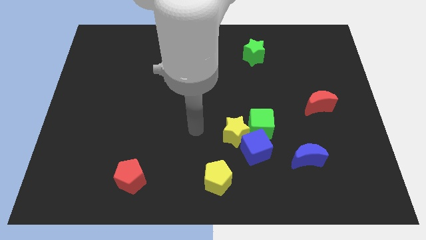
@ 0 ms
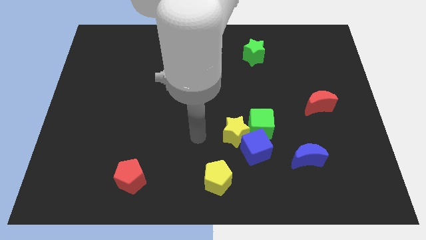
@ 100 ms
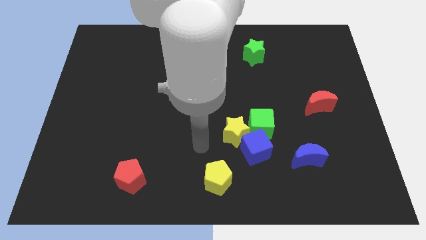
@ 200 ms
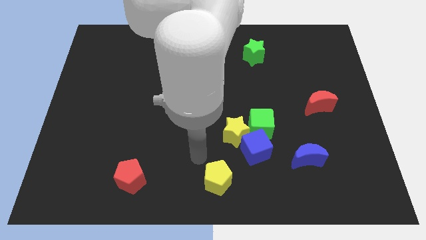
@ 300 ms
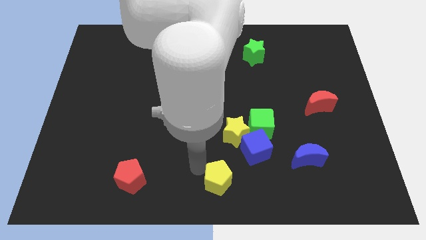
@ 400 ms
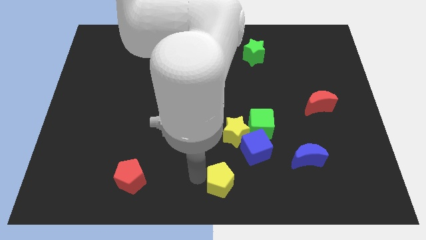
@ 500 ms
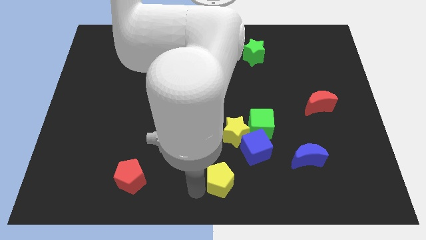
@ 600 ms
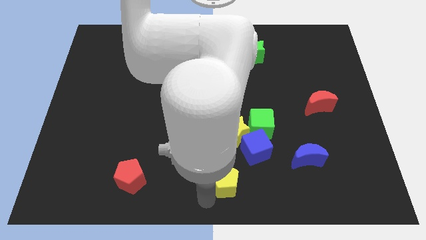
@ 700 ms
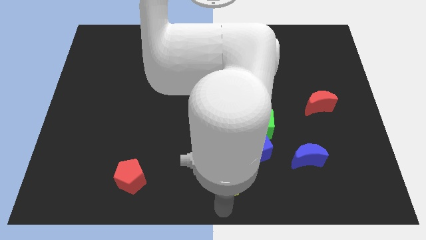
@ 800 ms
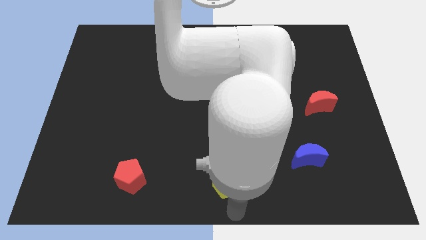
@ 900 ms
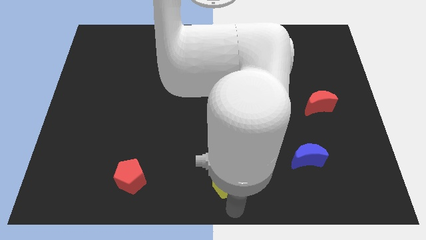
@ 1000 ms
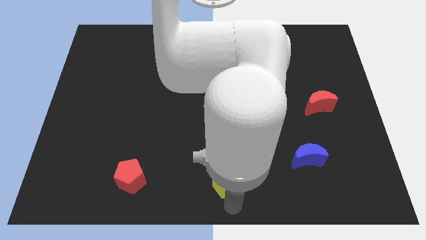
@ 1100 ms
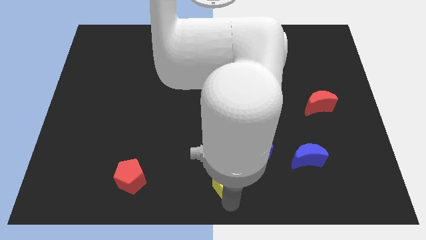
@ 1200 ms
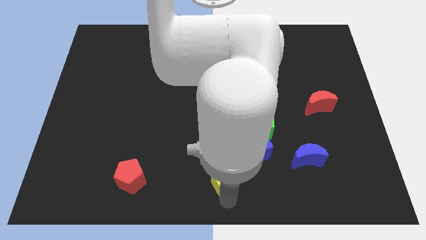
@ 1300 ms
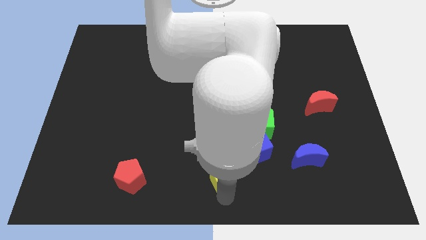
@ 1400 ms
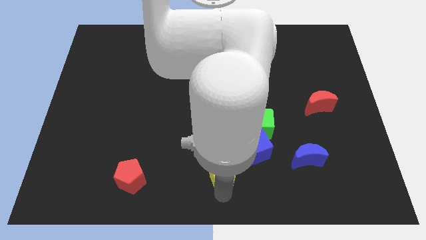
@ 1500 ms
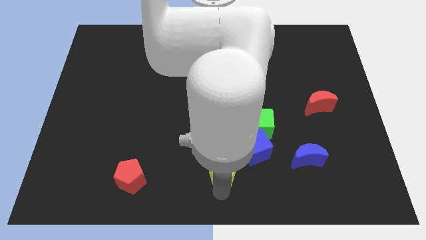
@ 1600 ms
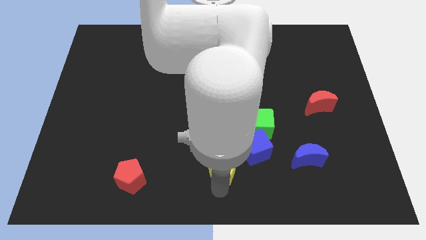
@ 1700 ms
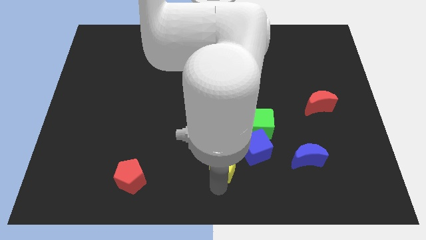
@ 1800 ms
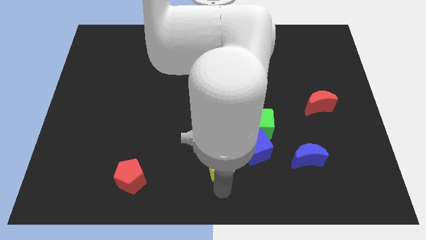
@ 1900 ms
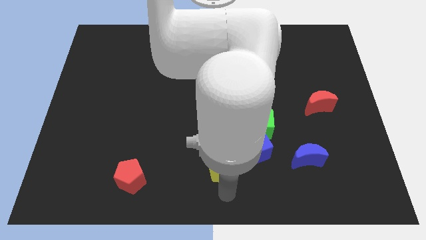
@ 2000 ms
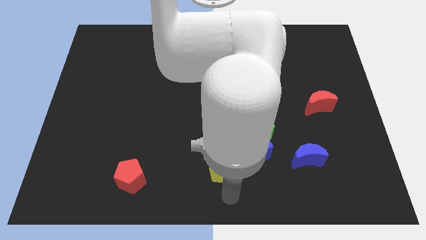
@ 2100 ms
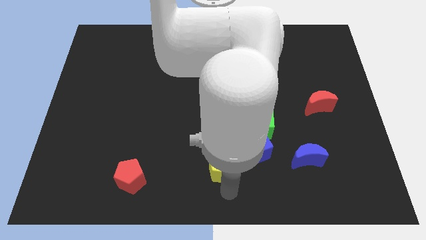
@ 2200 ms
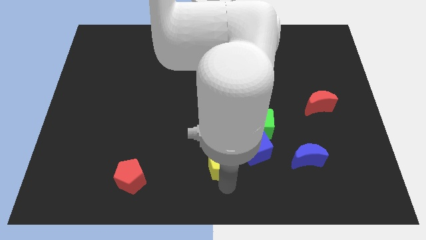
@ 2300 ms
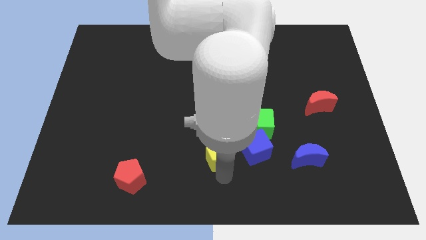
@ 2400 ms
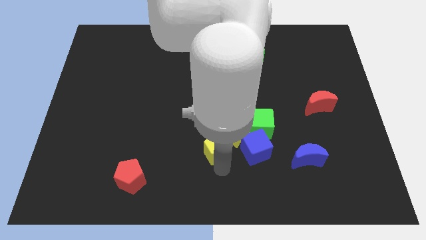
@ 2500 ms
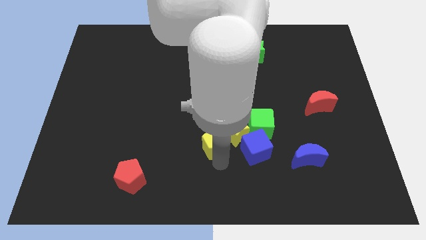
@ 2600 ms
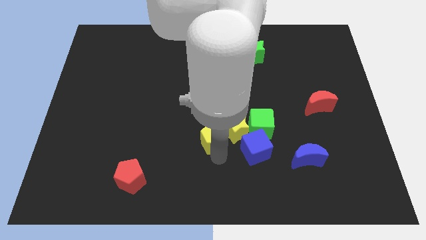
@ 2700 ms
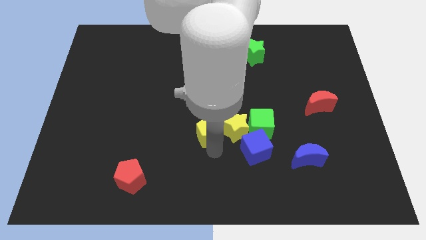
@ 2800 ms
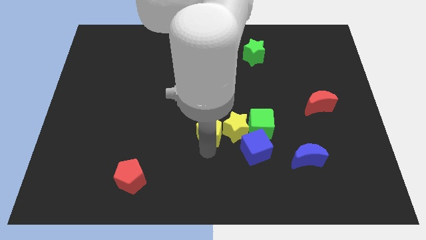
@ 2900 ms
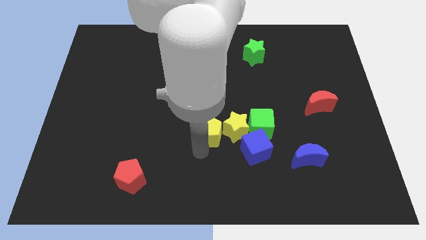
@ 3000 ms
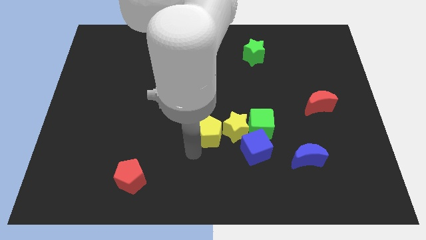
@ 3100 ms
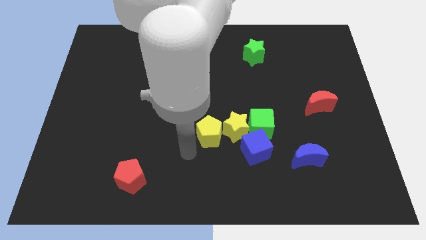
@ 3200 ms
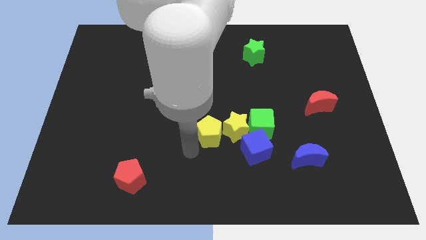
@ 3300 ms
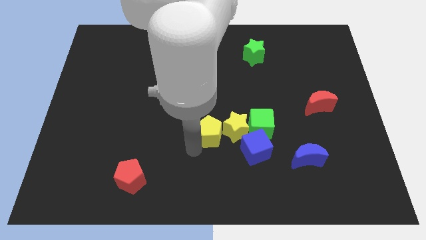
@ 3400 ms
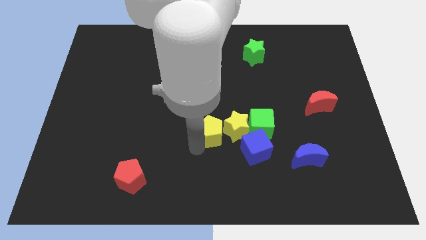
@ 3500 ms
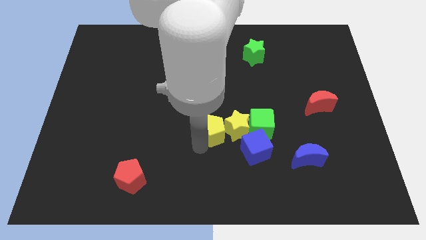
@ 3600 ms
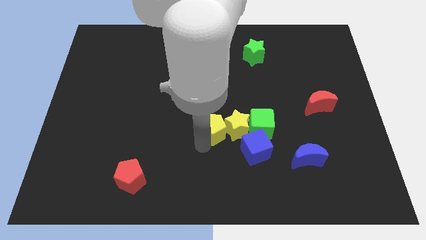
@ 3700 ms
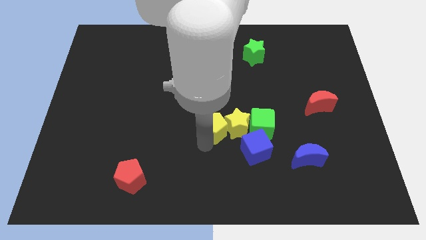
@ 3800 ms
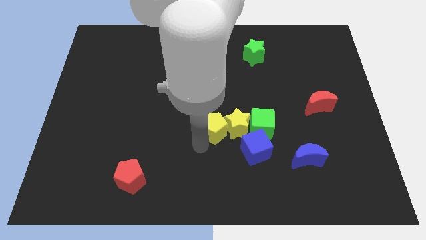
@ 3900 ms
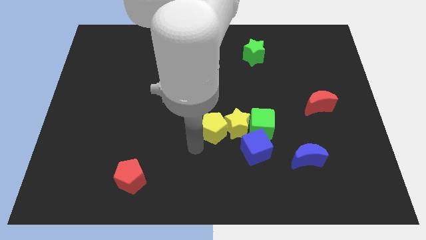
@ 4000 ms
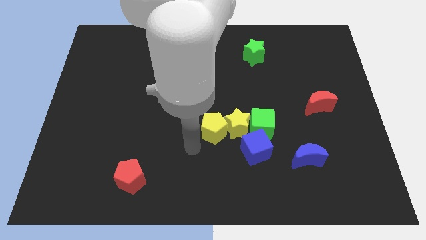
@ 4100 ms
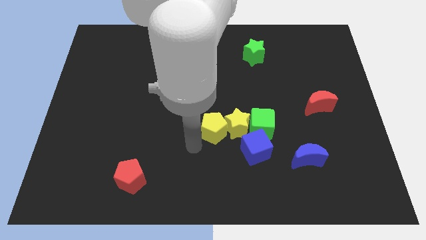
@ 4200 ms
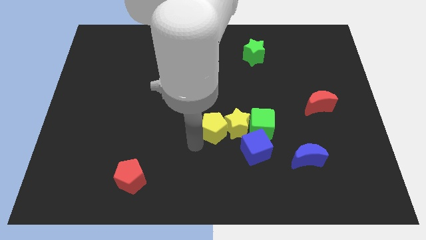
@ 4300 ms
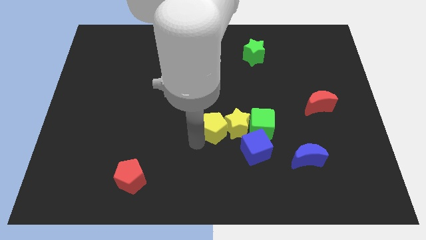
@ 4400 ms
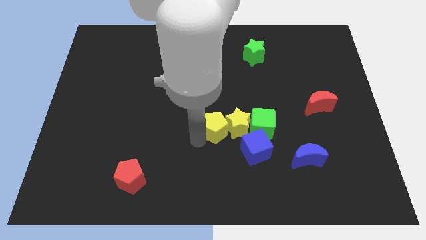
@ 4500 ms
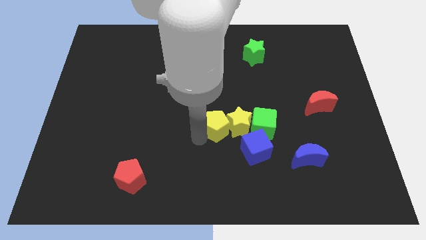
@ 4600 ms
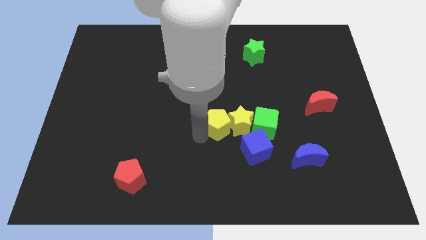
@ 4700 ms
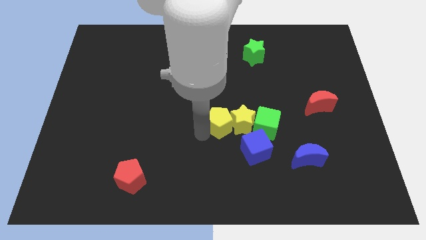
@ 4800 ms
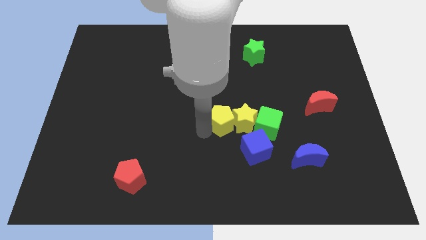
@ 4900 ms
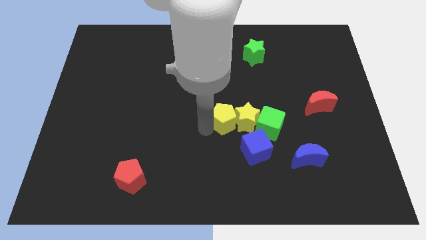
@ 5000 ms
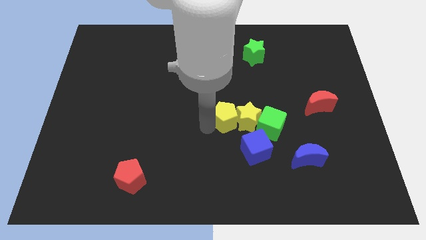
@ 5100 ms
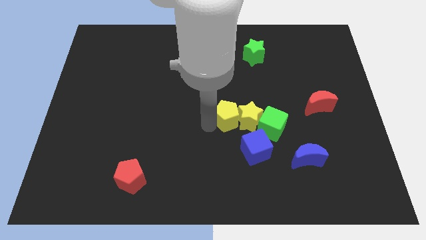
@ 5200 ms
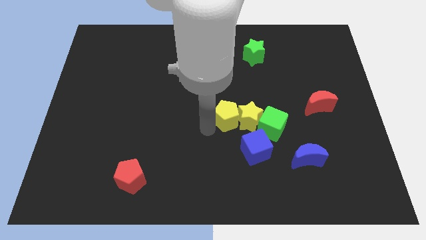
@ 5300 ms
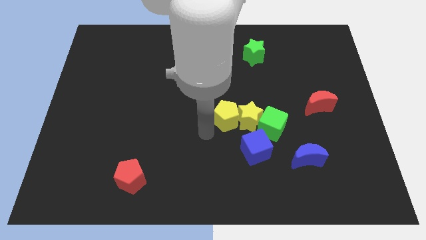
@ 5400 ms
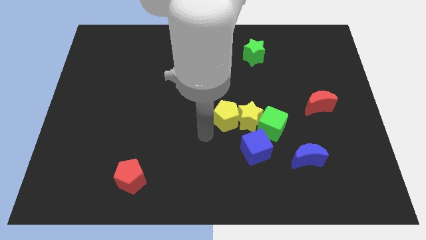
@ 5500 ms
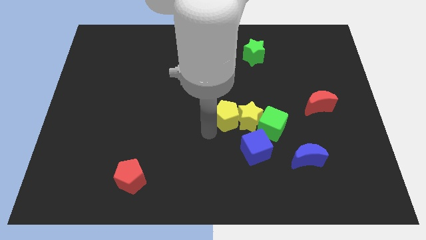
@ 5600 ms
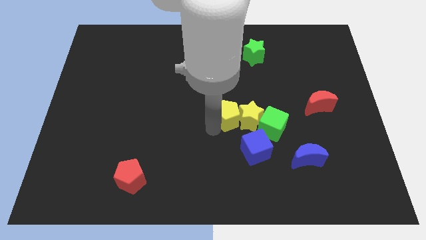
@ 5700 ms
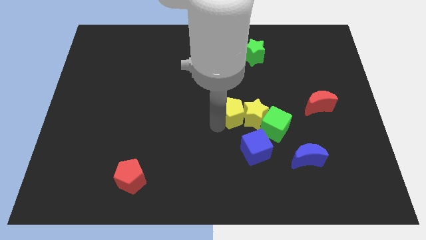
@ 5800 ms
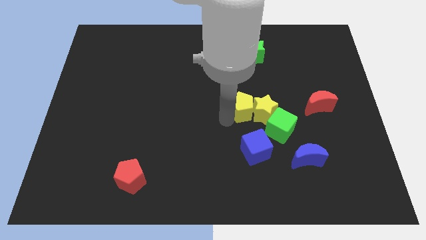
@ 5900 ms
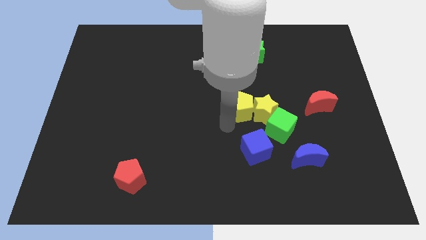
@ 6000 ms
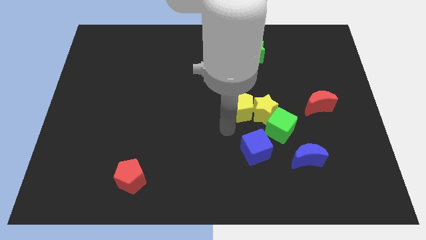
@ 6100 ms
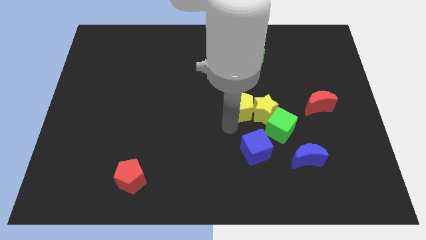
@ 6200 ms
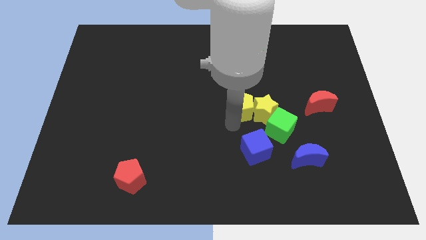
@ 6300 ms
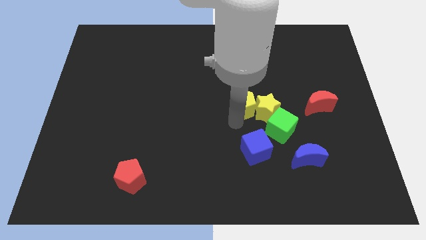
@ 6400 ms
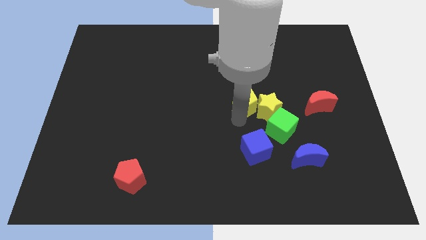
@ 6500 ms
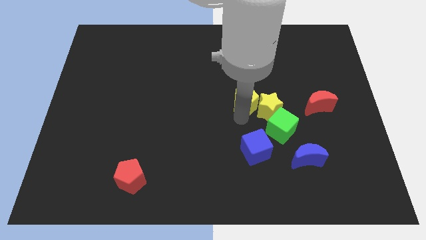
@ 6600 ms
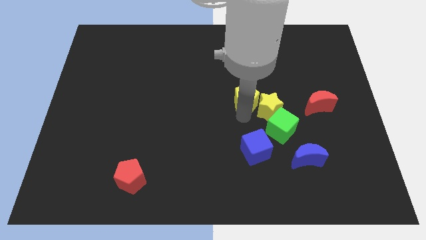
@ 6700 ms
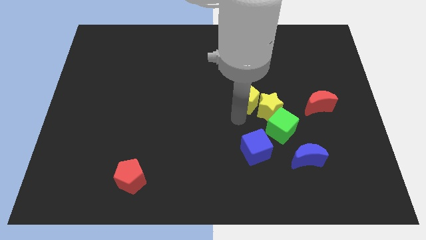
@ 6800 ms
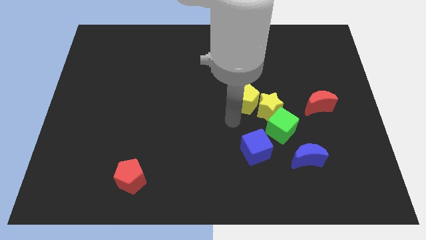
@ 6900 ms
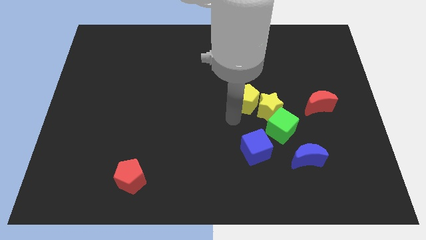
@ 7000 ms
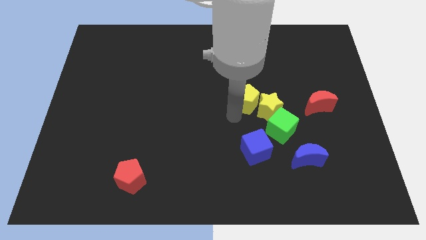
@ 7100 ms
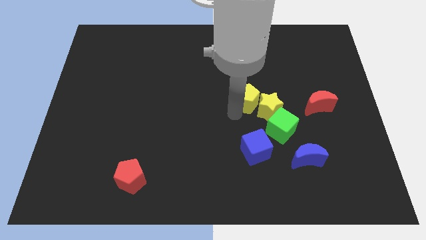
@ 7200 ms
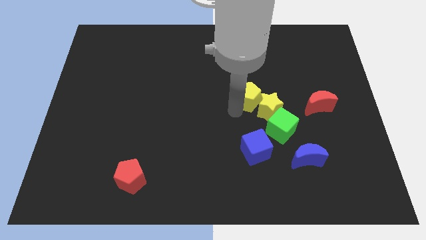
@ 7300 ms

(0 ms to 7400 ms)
push the yellow pentagon below the green star
